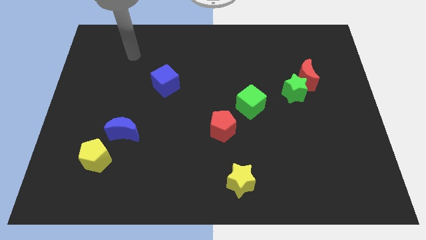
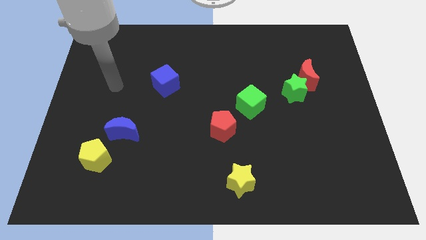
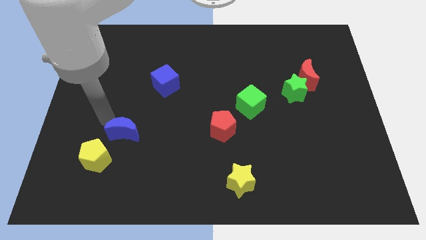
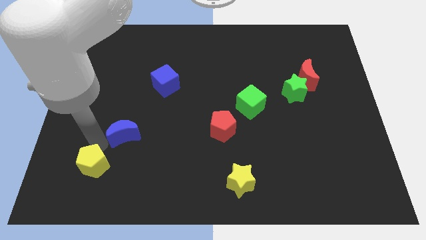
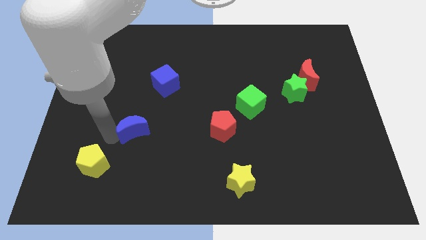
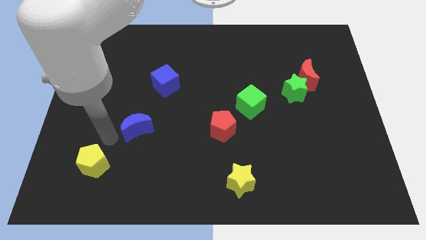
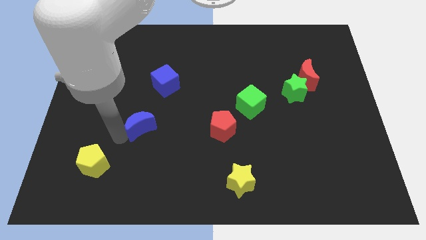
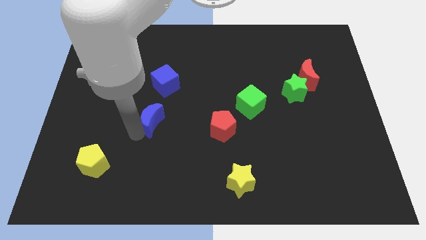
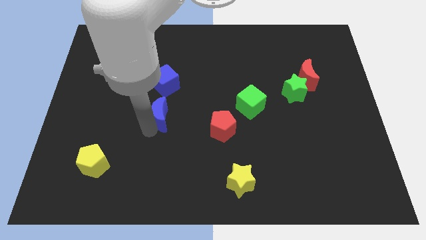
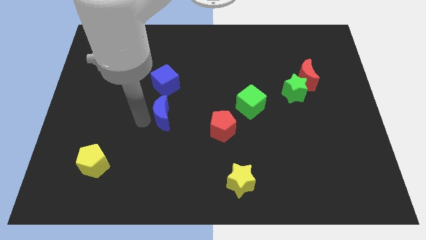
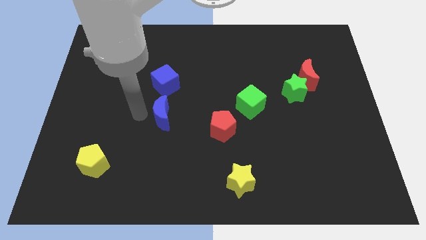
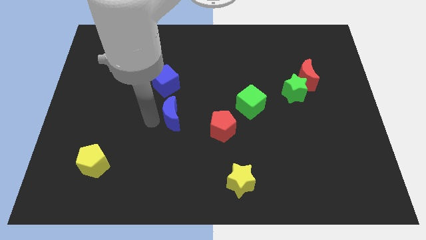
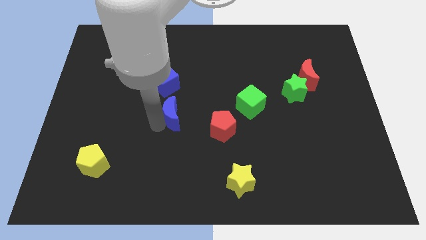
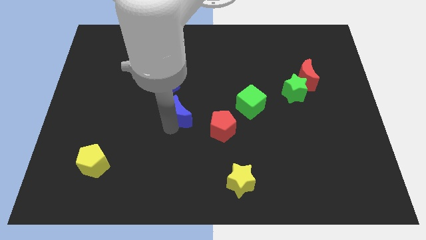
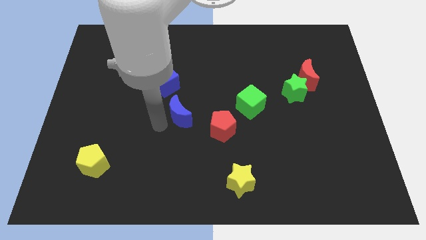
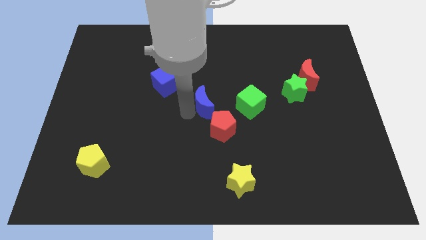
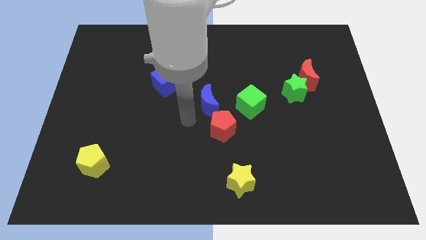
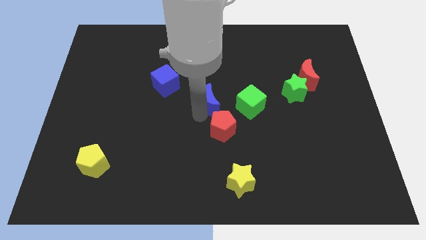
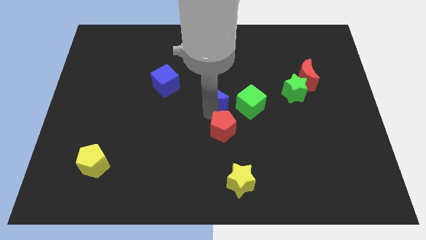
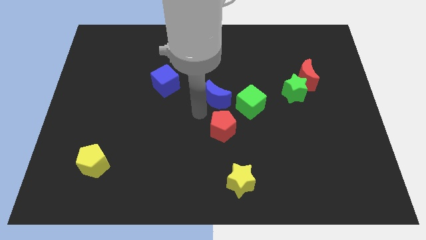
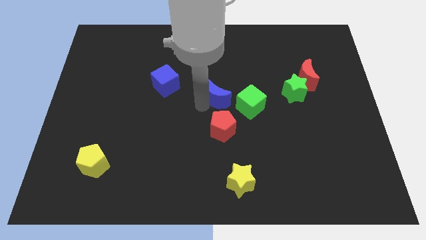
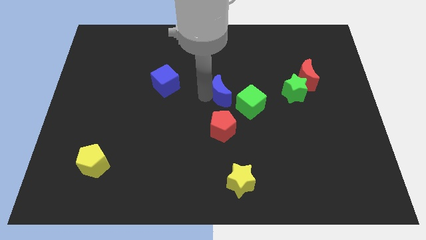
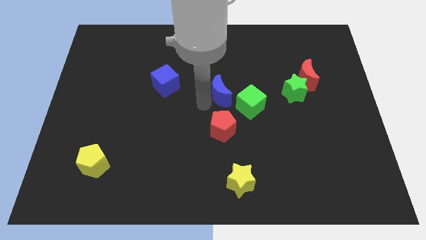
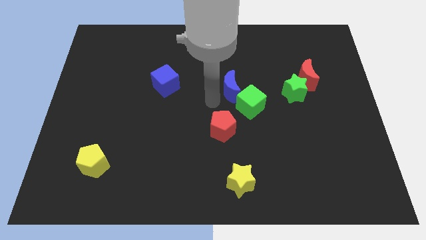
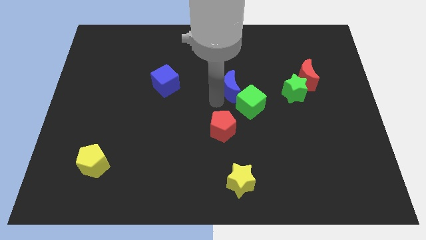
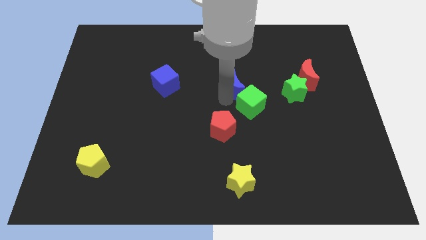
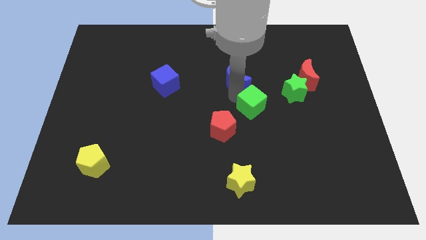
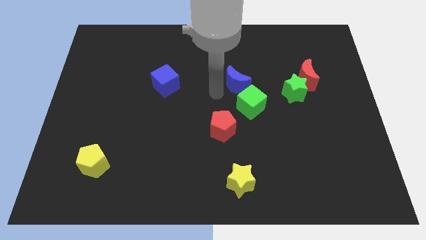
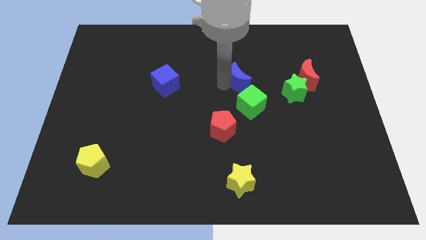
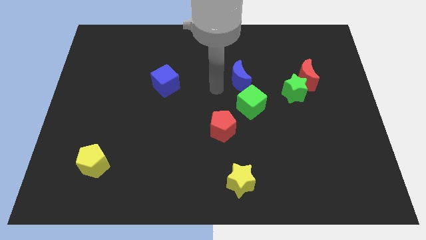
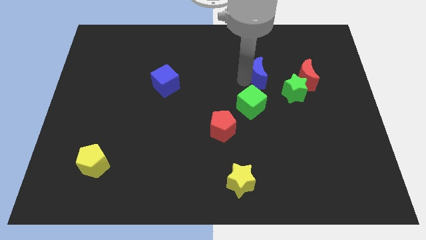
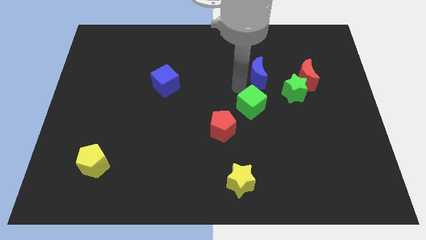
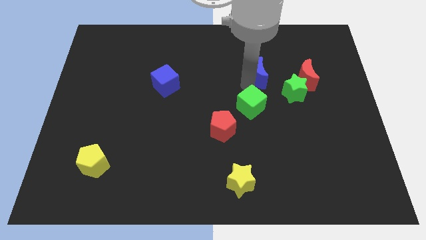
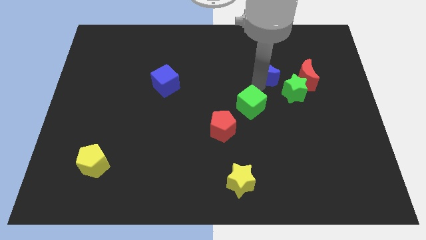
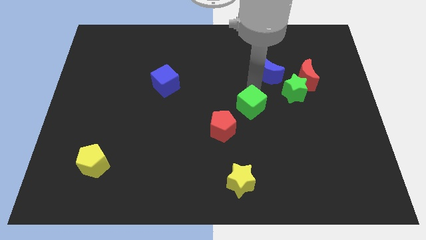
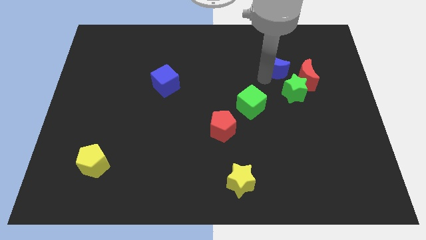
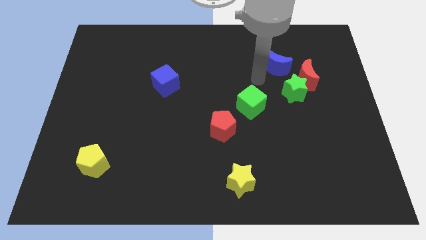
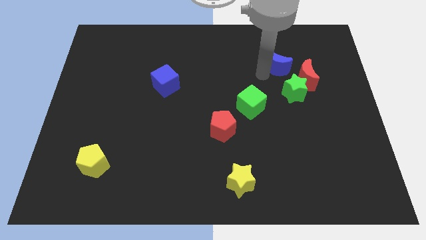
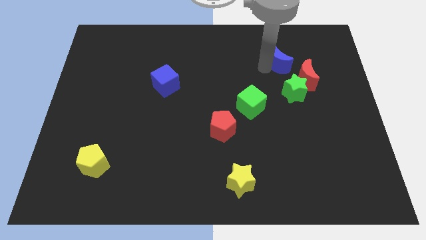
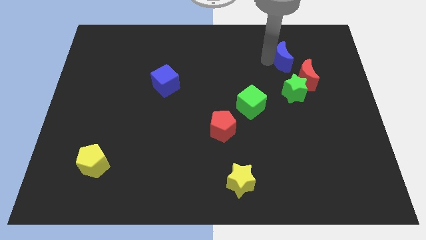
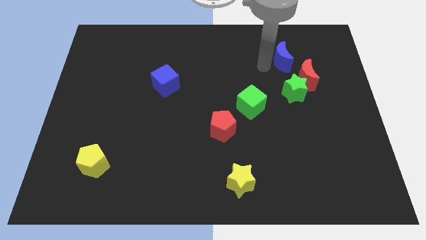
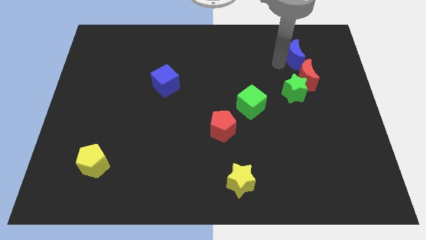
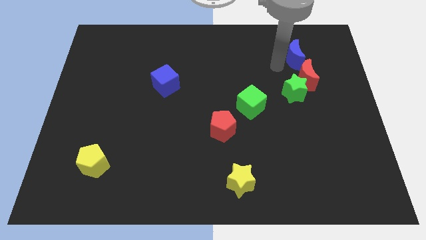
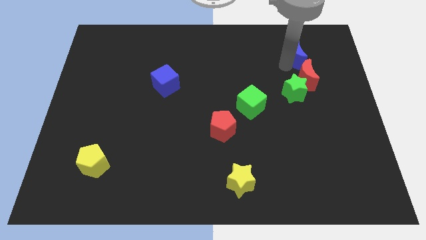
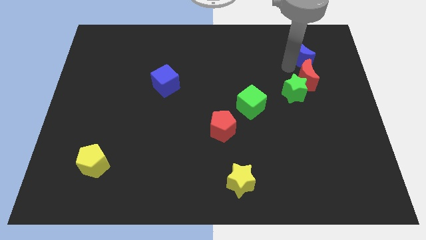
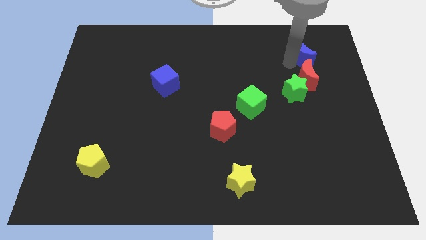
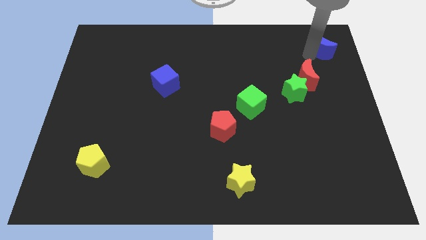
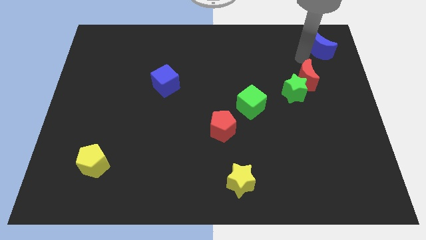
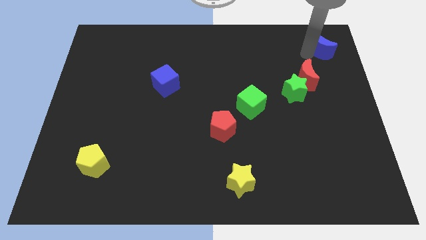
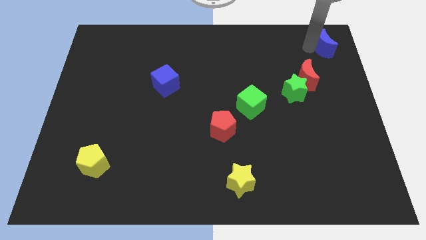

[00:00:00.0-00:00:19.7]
slide the blue moon to the top right of the board
